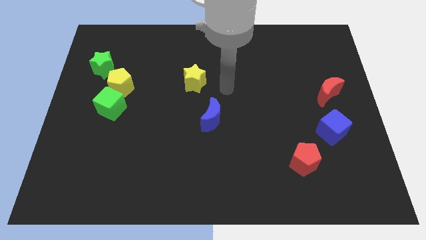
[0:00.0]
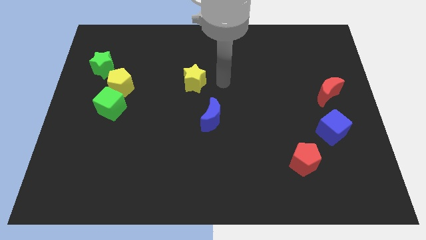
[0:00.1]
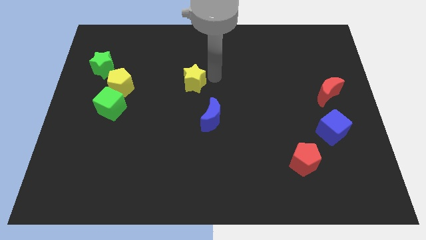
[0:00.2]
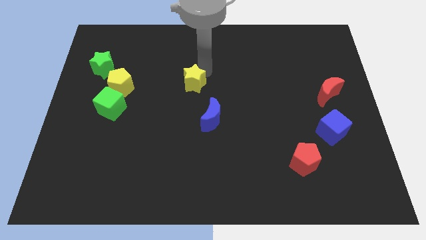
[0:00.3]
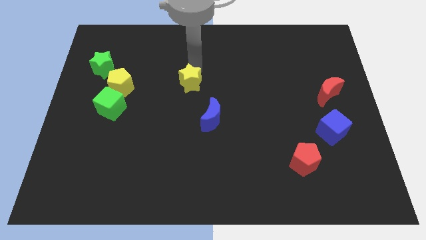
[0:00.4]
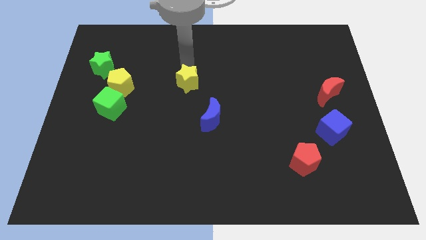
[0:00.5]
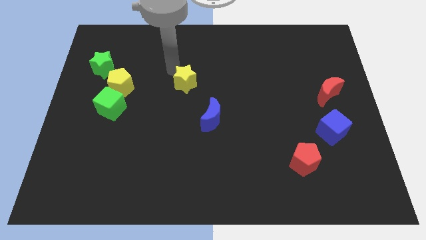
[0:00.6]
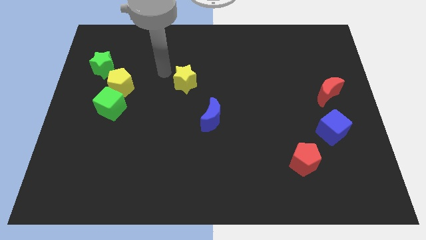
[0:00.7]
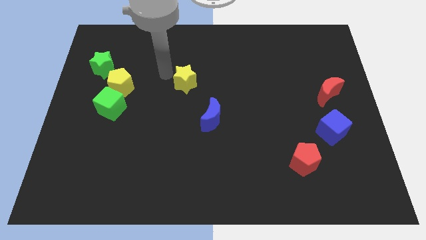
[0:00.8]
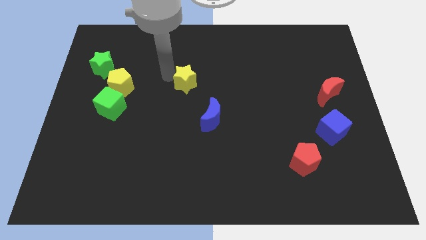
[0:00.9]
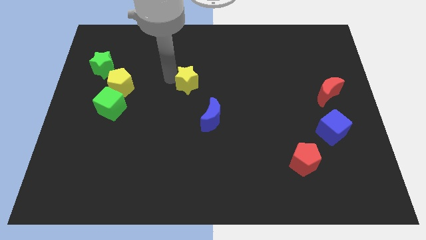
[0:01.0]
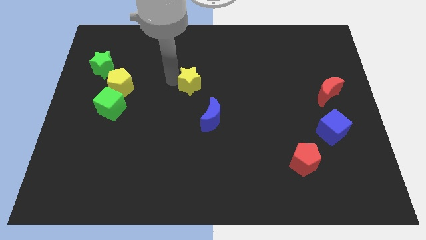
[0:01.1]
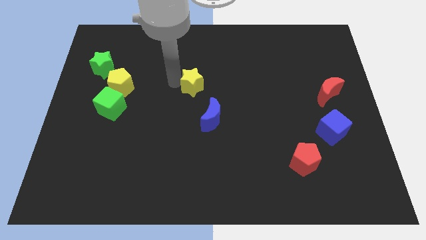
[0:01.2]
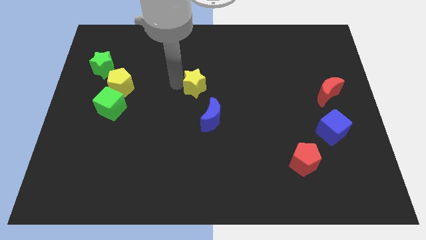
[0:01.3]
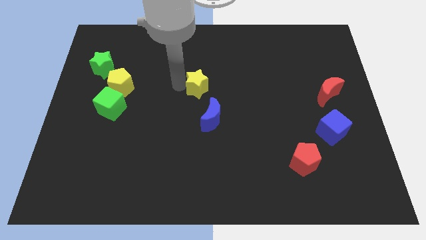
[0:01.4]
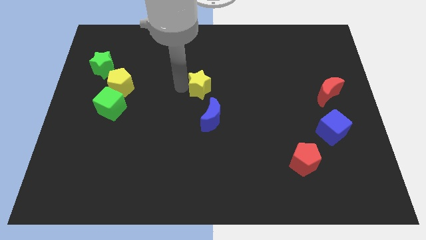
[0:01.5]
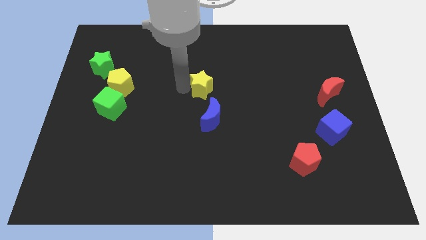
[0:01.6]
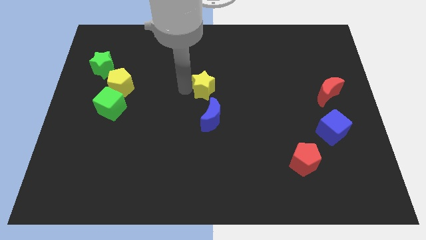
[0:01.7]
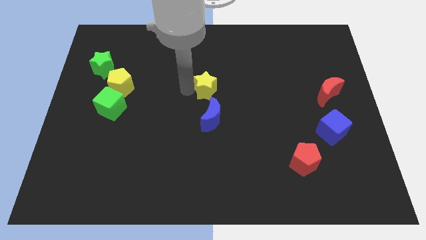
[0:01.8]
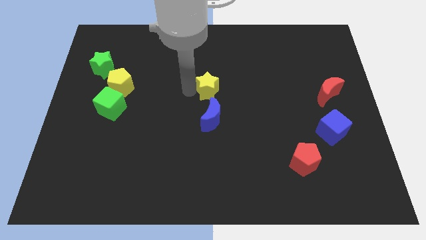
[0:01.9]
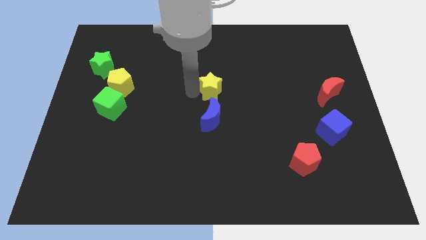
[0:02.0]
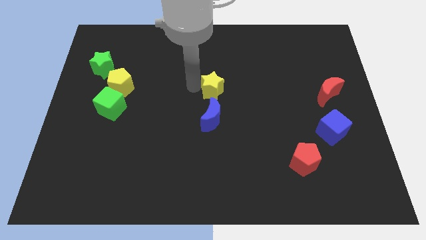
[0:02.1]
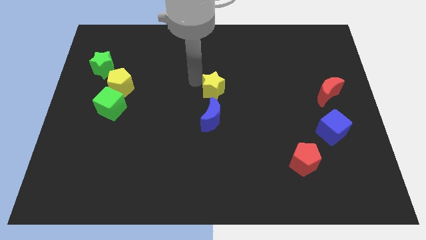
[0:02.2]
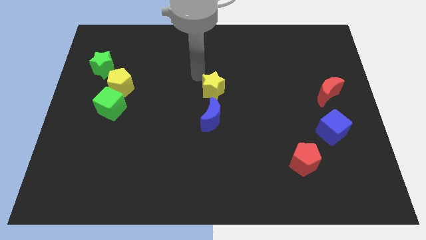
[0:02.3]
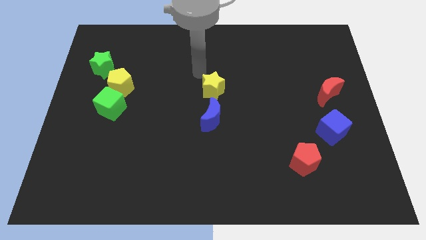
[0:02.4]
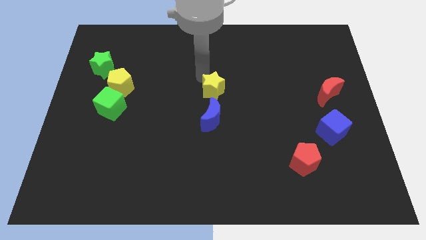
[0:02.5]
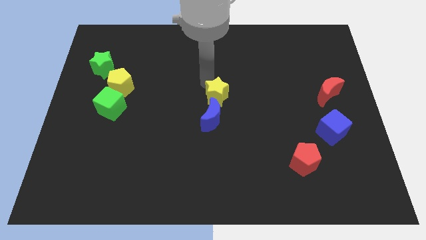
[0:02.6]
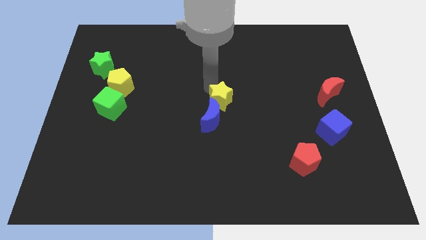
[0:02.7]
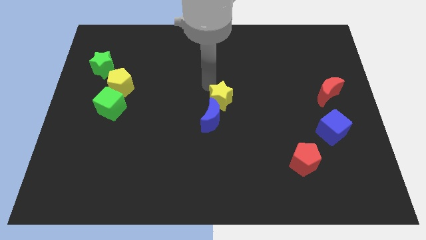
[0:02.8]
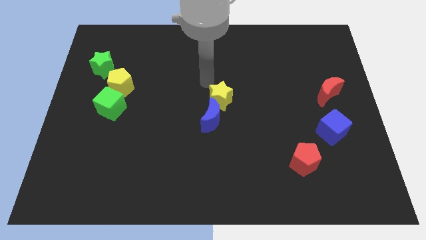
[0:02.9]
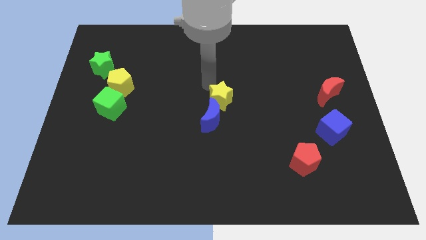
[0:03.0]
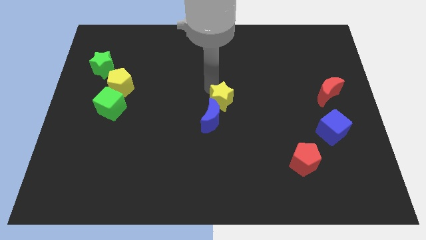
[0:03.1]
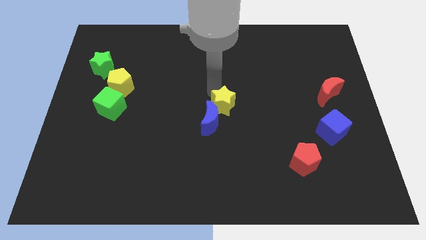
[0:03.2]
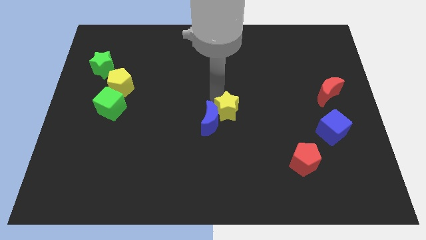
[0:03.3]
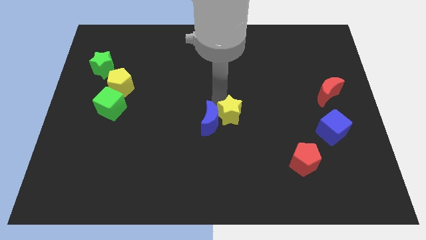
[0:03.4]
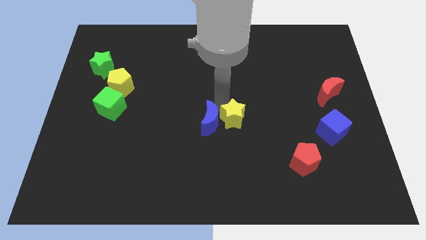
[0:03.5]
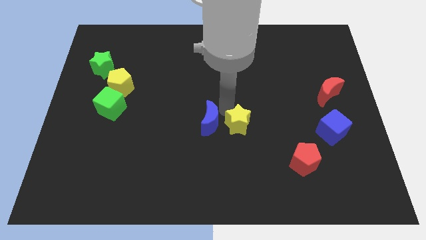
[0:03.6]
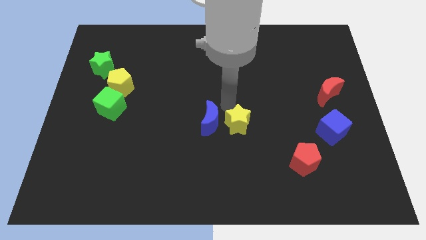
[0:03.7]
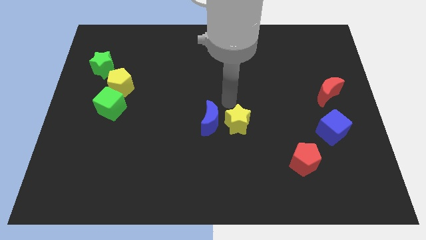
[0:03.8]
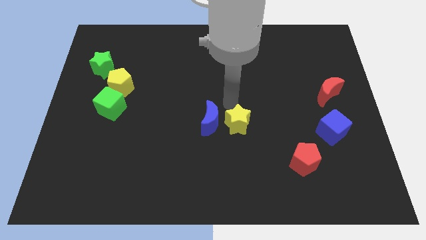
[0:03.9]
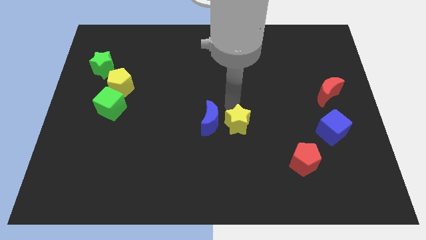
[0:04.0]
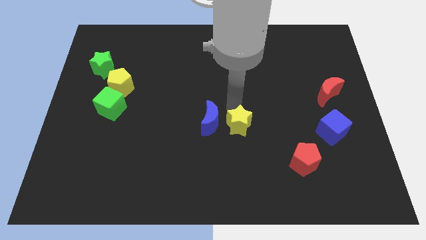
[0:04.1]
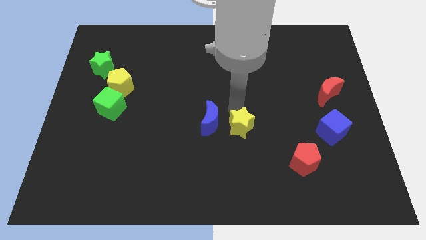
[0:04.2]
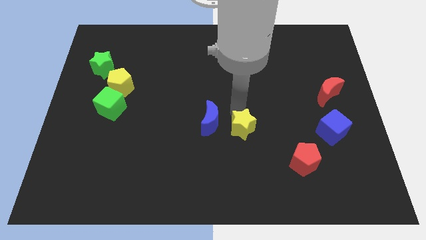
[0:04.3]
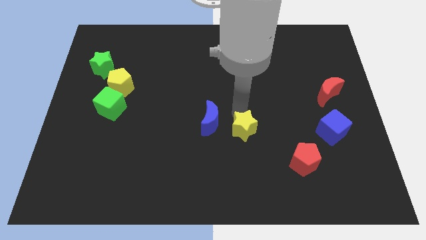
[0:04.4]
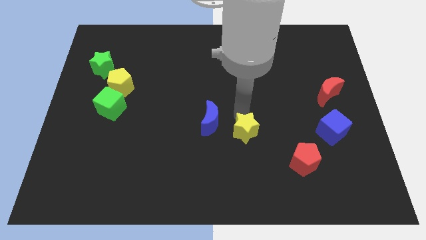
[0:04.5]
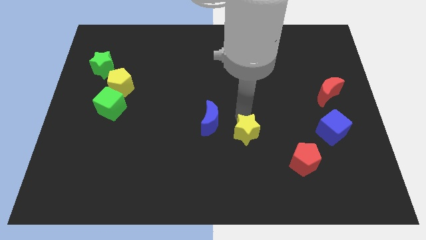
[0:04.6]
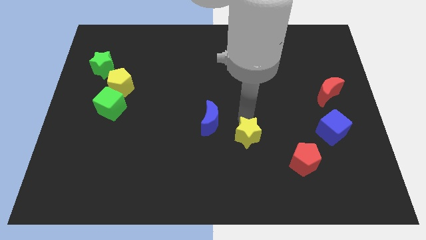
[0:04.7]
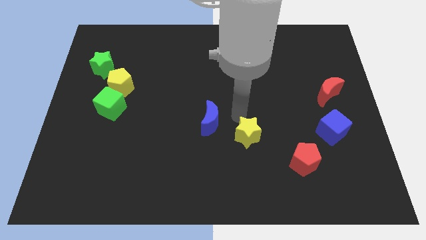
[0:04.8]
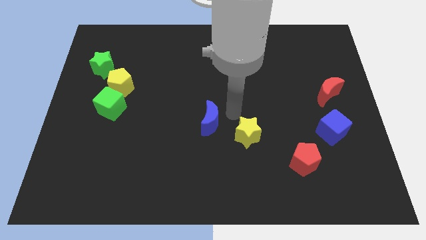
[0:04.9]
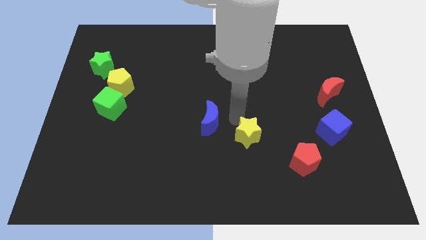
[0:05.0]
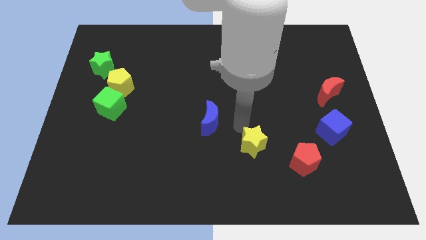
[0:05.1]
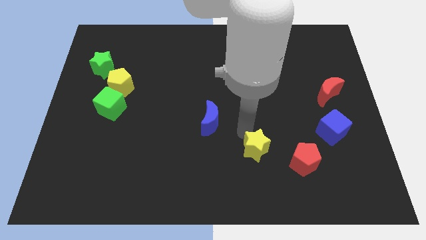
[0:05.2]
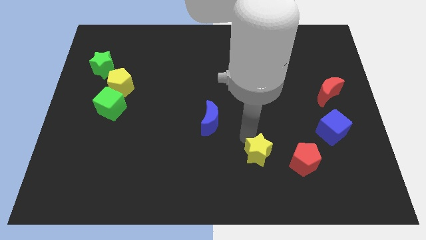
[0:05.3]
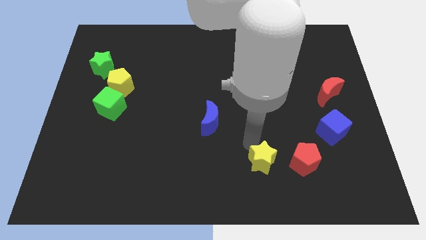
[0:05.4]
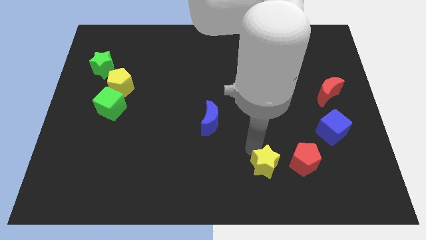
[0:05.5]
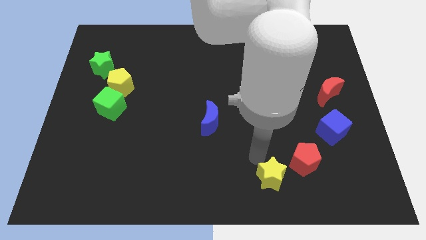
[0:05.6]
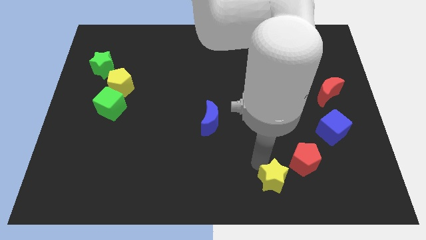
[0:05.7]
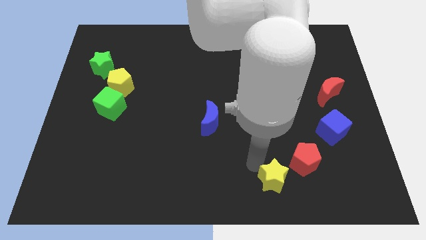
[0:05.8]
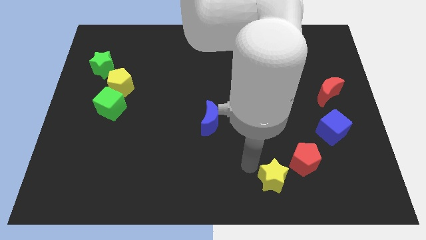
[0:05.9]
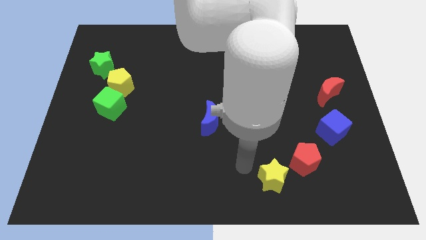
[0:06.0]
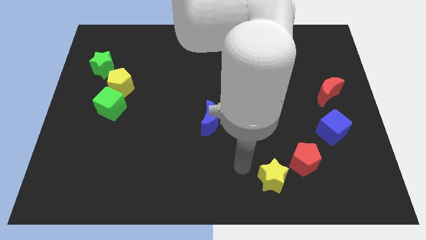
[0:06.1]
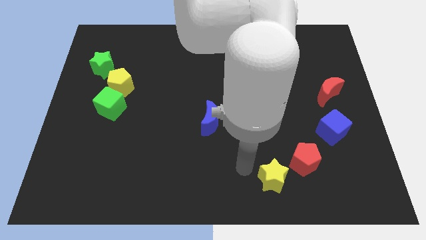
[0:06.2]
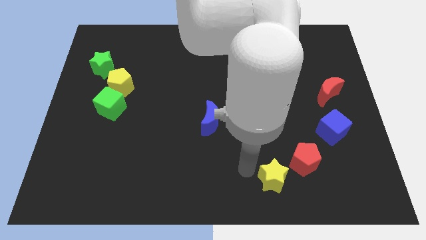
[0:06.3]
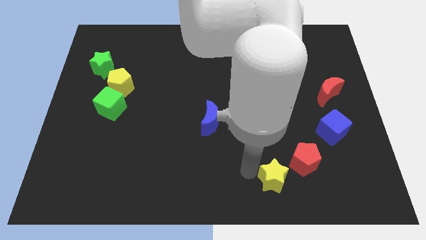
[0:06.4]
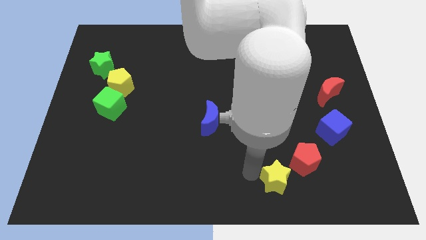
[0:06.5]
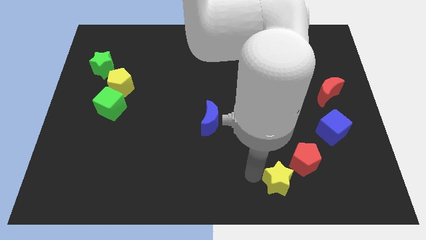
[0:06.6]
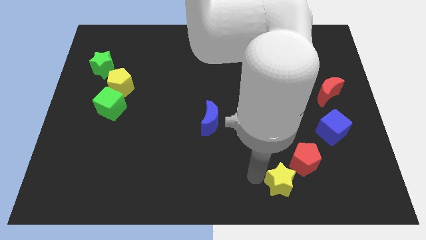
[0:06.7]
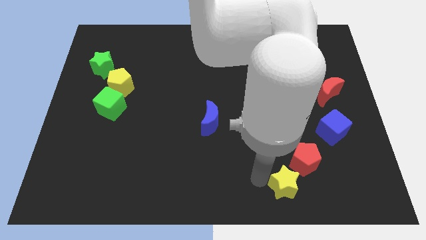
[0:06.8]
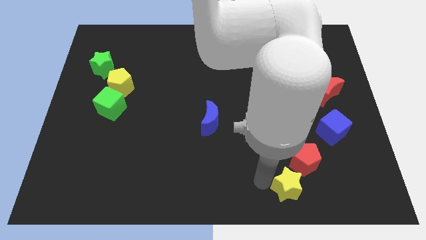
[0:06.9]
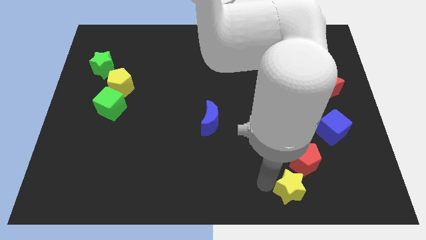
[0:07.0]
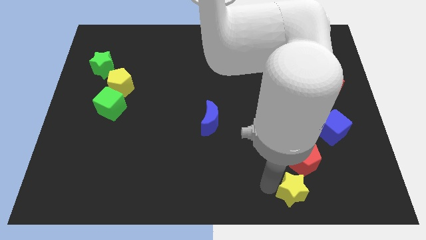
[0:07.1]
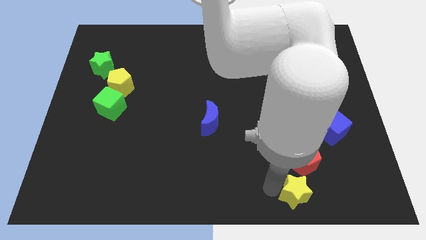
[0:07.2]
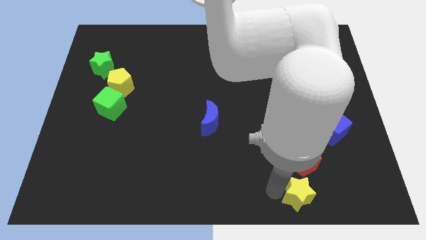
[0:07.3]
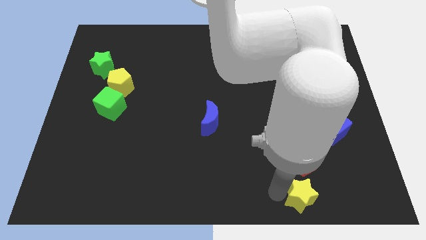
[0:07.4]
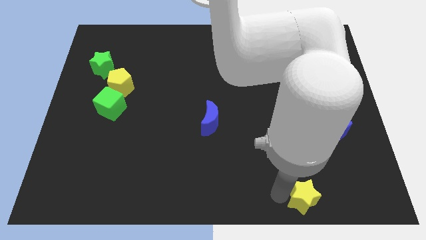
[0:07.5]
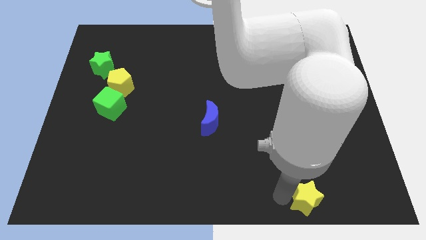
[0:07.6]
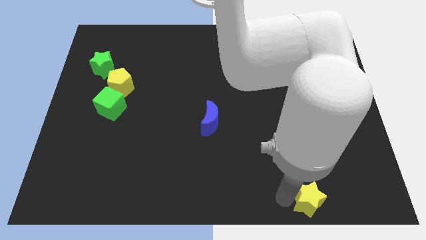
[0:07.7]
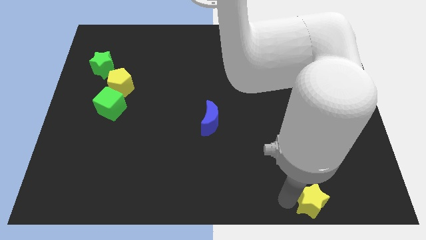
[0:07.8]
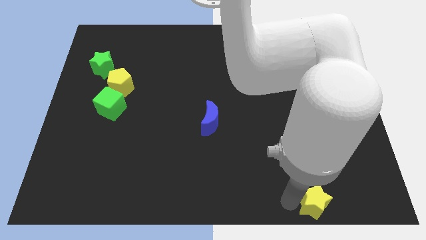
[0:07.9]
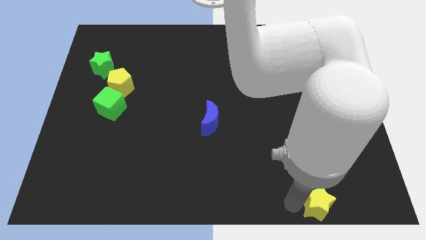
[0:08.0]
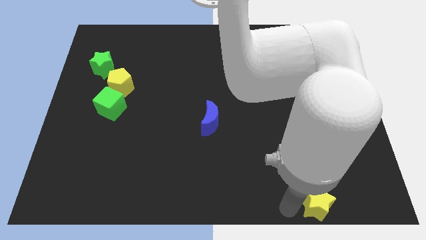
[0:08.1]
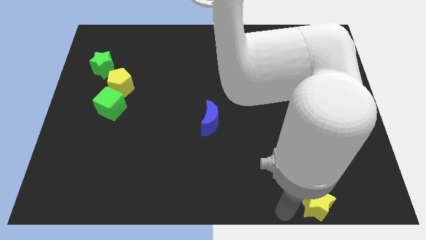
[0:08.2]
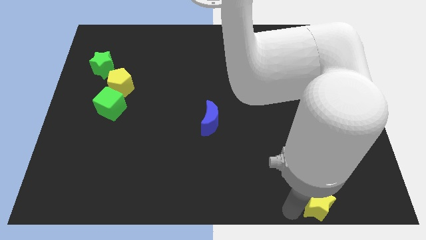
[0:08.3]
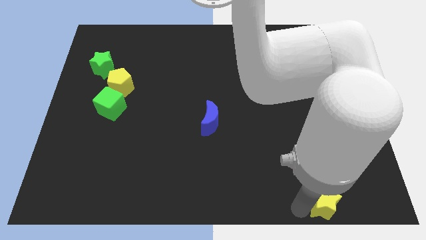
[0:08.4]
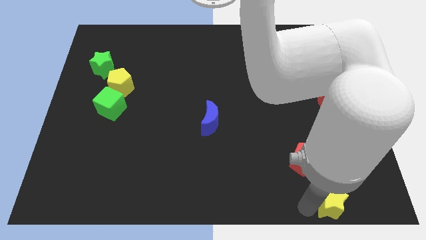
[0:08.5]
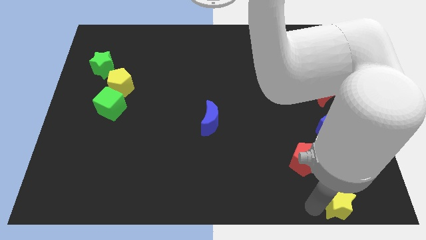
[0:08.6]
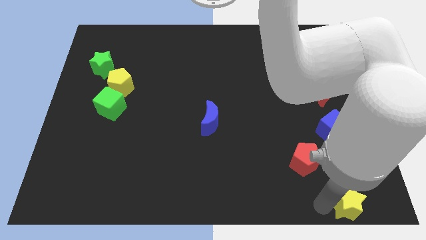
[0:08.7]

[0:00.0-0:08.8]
push the yellow star to the bottom right of the board
